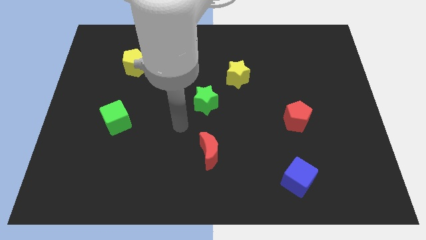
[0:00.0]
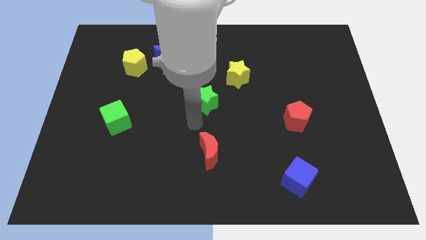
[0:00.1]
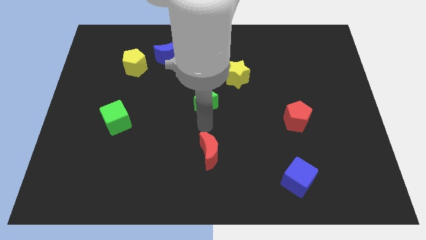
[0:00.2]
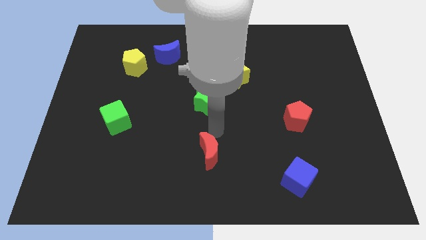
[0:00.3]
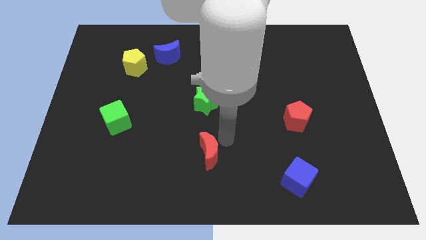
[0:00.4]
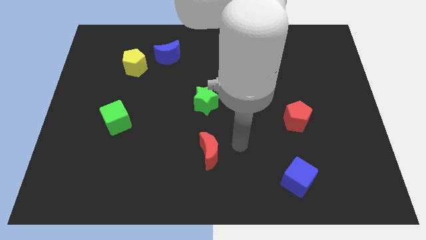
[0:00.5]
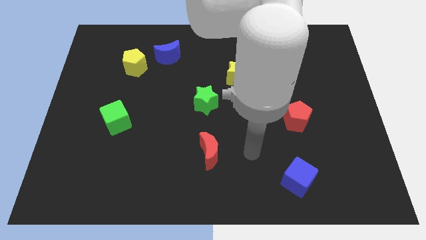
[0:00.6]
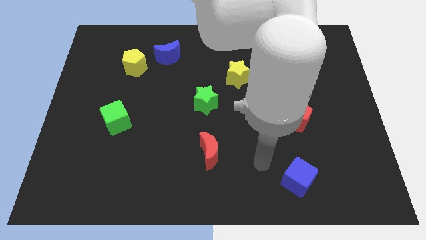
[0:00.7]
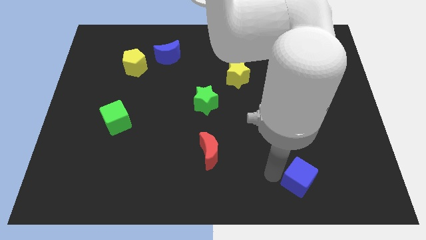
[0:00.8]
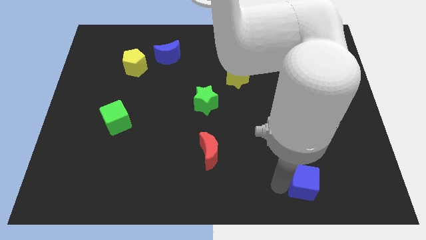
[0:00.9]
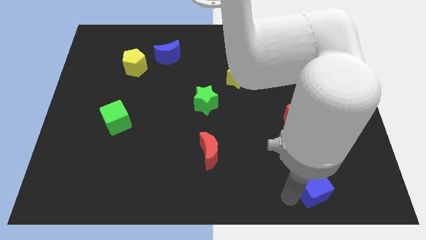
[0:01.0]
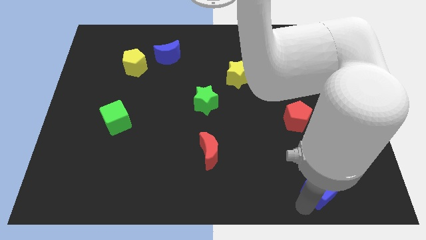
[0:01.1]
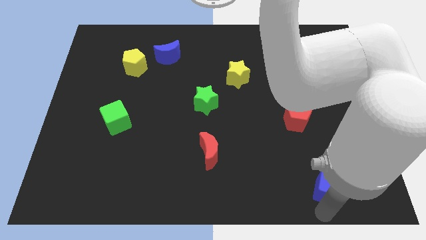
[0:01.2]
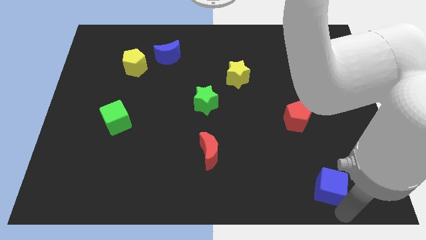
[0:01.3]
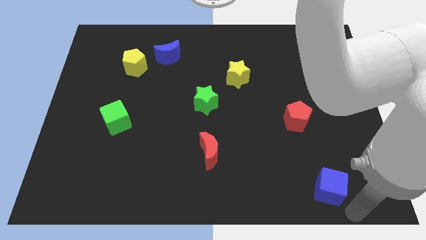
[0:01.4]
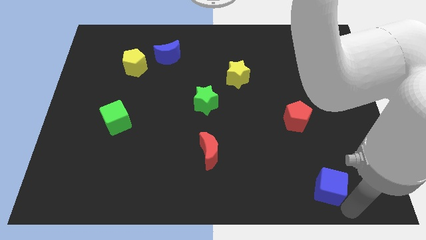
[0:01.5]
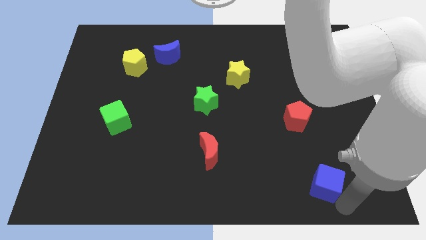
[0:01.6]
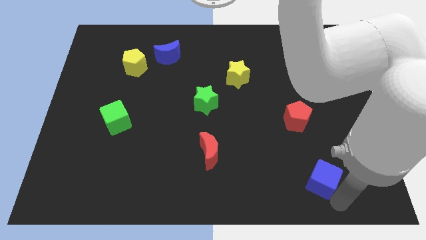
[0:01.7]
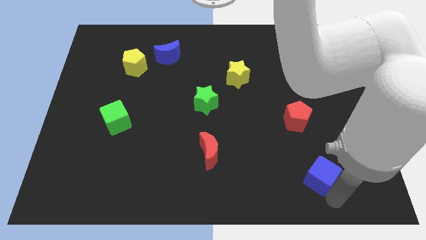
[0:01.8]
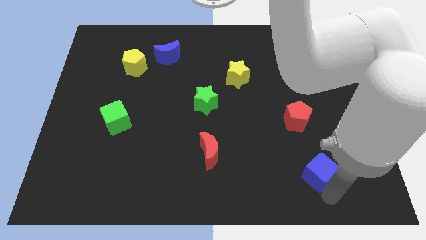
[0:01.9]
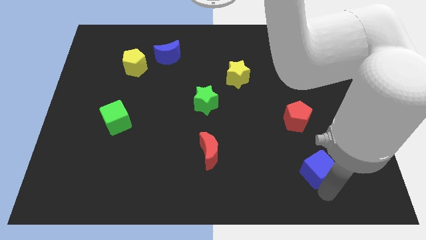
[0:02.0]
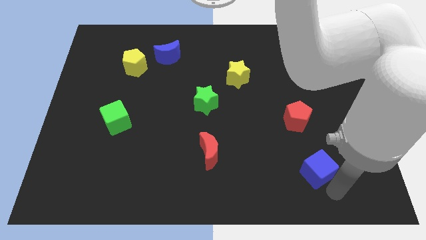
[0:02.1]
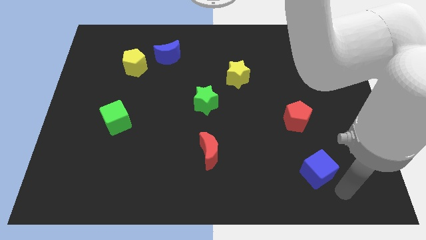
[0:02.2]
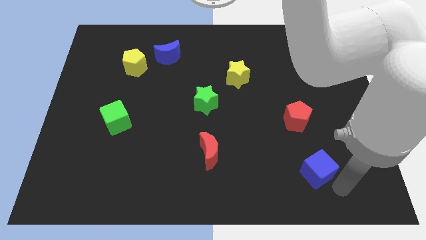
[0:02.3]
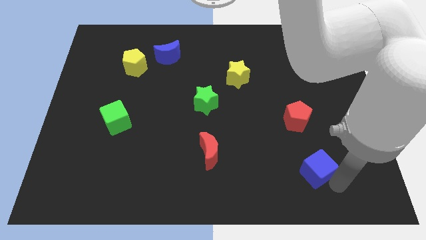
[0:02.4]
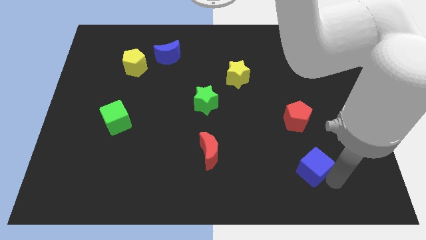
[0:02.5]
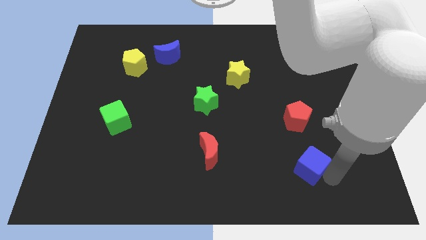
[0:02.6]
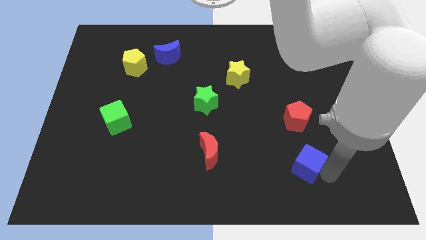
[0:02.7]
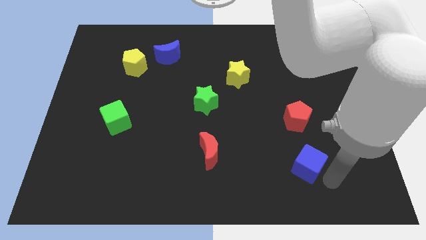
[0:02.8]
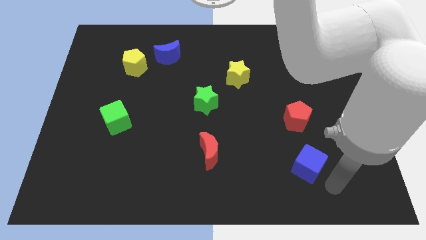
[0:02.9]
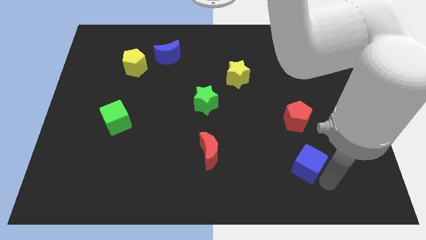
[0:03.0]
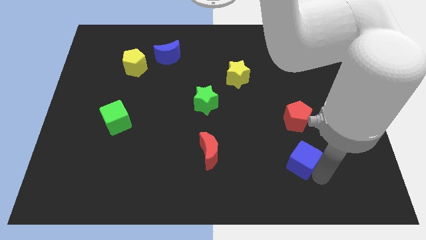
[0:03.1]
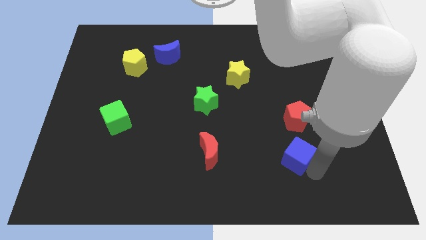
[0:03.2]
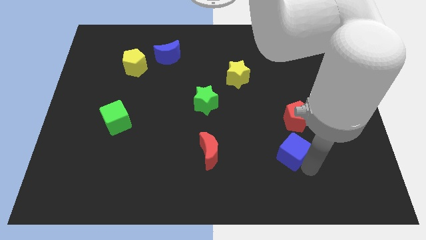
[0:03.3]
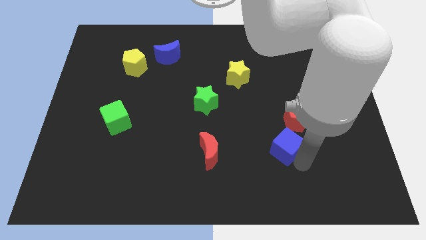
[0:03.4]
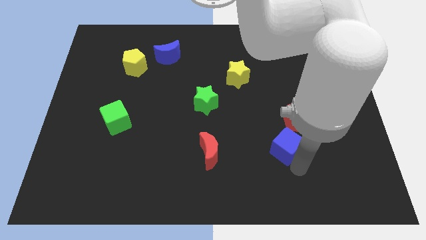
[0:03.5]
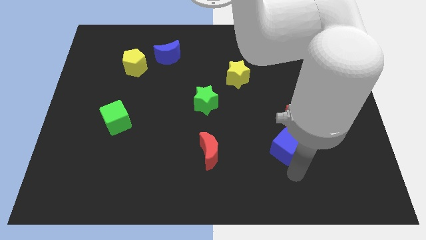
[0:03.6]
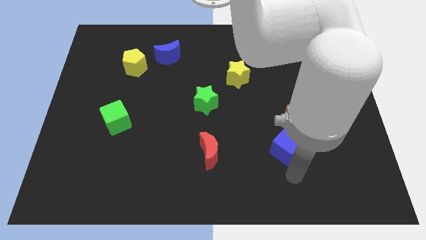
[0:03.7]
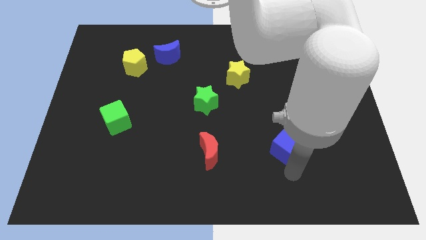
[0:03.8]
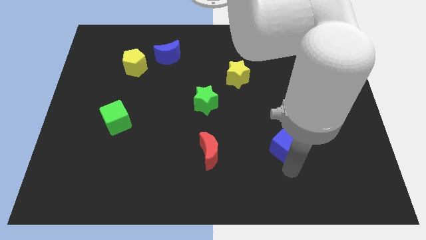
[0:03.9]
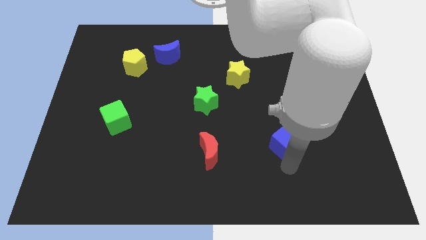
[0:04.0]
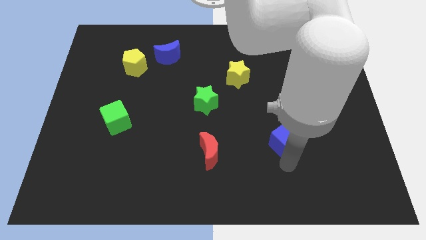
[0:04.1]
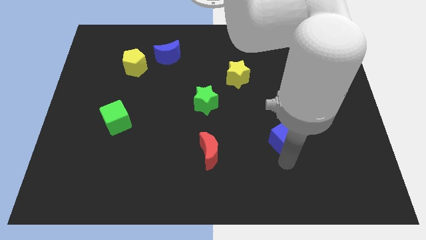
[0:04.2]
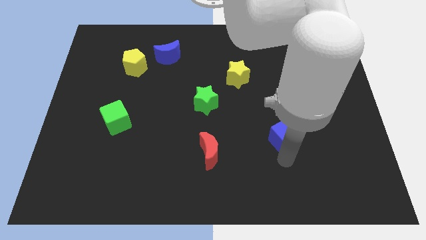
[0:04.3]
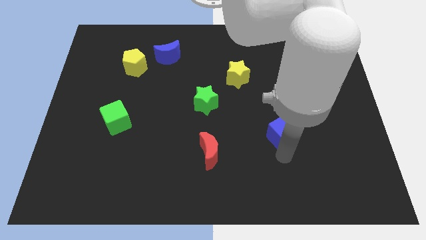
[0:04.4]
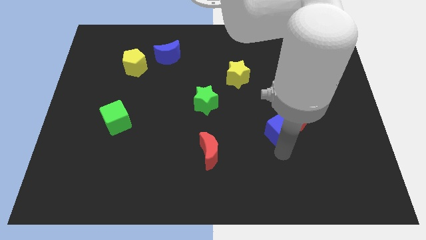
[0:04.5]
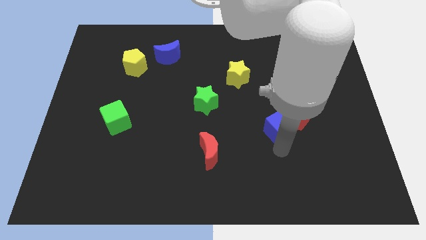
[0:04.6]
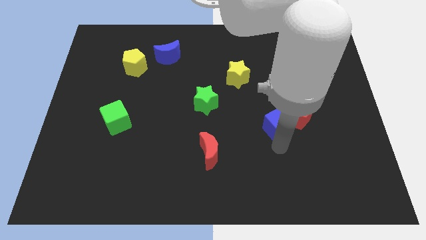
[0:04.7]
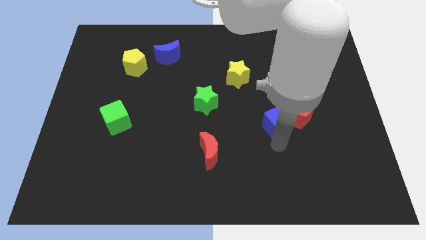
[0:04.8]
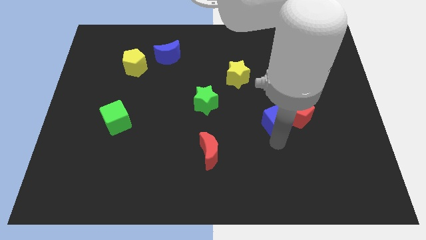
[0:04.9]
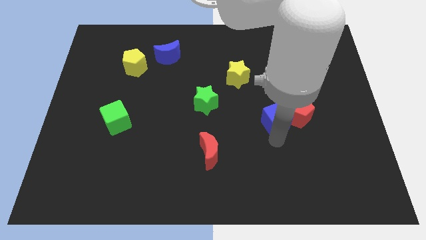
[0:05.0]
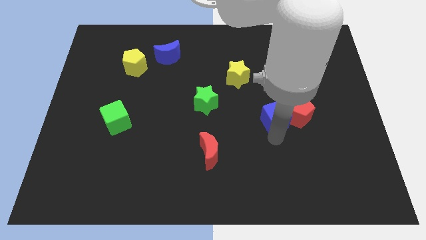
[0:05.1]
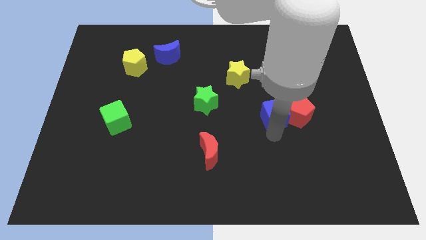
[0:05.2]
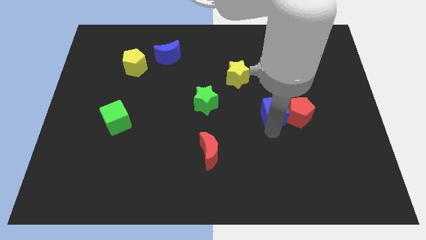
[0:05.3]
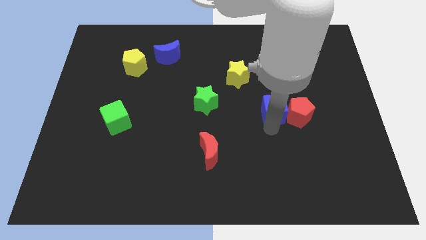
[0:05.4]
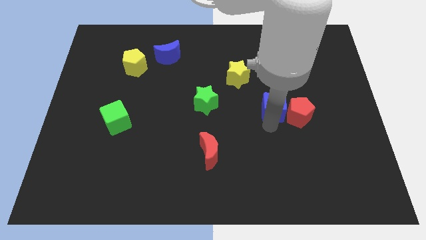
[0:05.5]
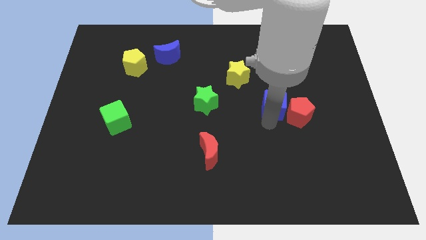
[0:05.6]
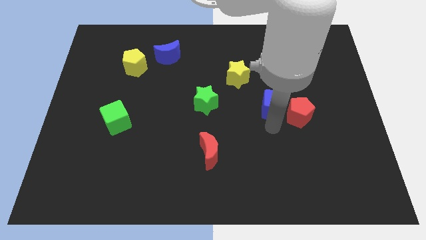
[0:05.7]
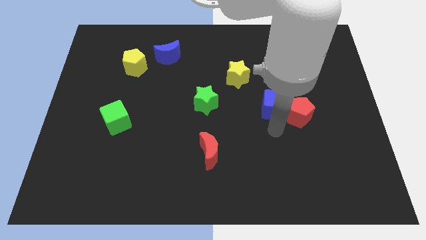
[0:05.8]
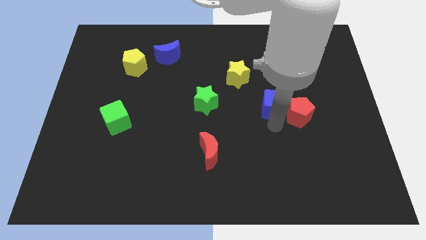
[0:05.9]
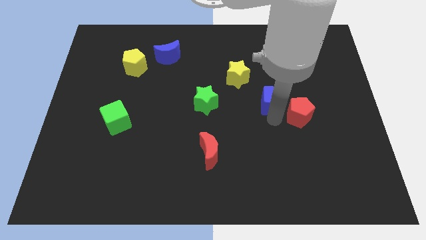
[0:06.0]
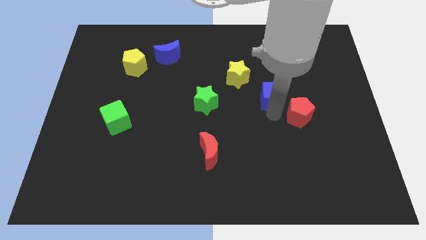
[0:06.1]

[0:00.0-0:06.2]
slide the blue cube upwards

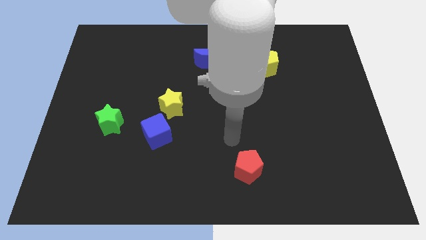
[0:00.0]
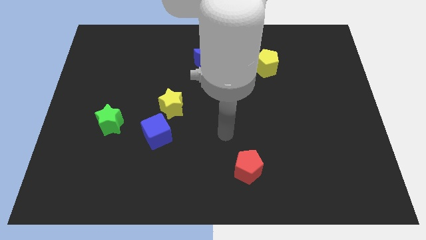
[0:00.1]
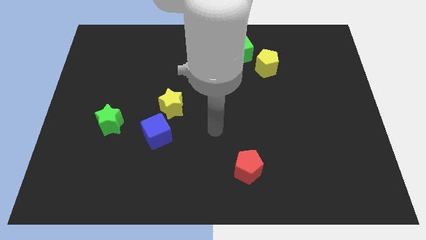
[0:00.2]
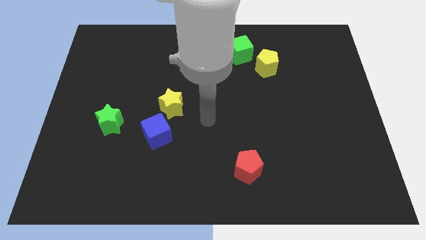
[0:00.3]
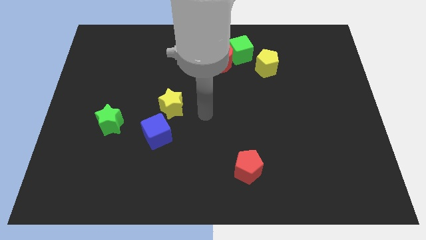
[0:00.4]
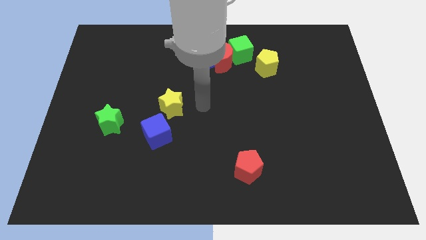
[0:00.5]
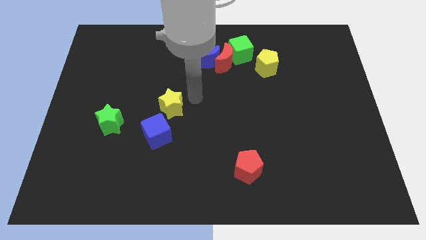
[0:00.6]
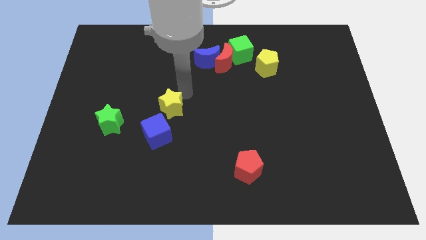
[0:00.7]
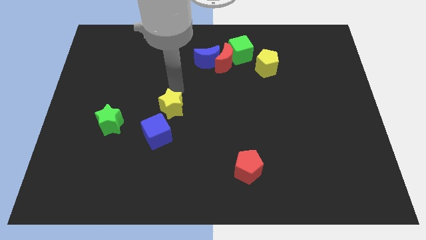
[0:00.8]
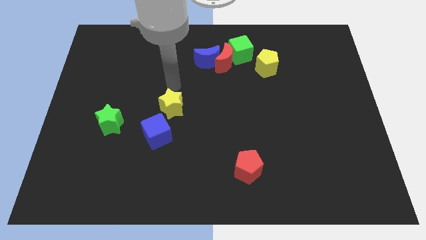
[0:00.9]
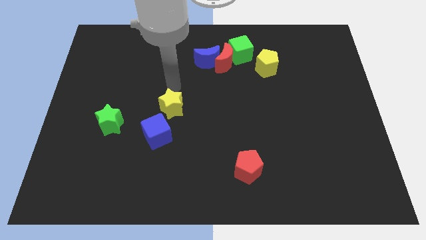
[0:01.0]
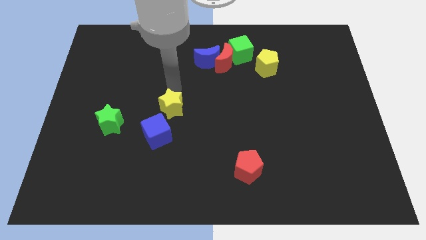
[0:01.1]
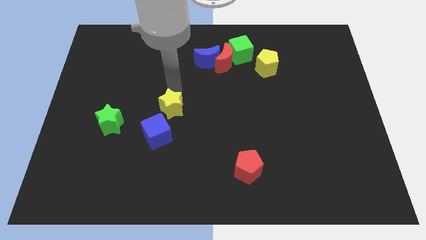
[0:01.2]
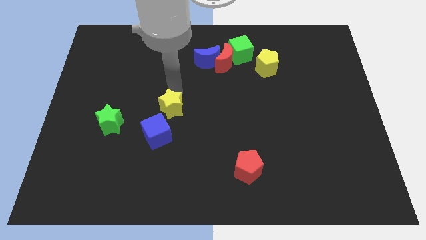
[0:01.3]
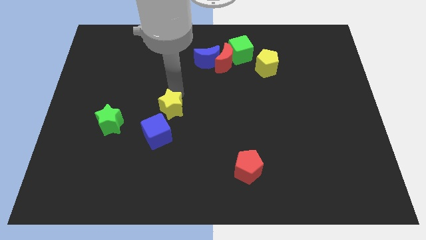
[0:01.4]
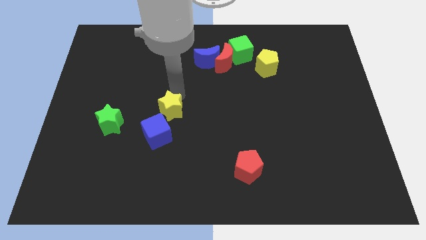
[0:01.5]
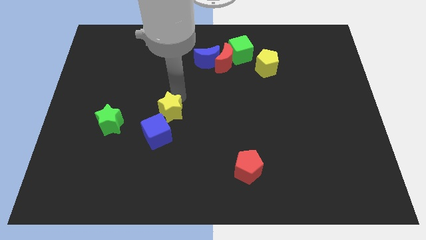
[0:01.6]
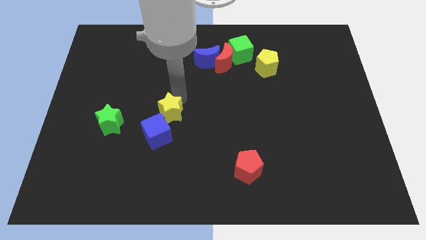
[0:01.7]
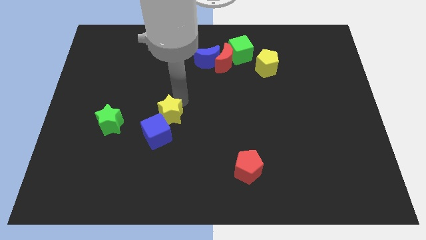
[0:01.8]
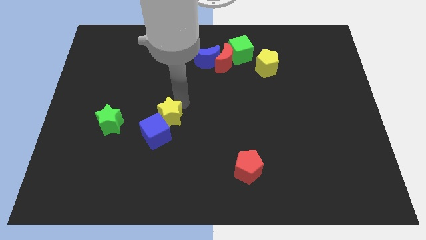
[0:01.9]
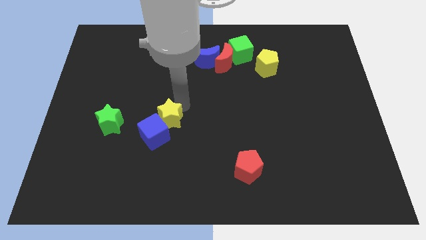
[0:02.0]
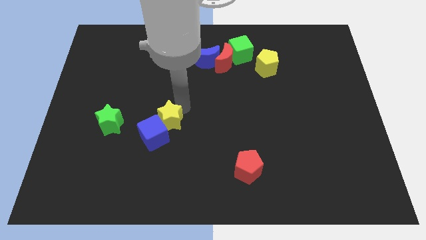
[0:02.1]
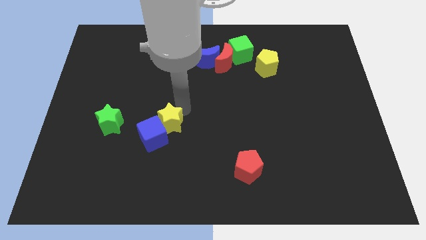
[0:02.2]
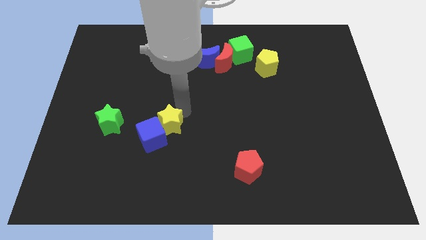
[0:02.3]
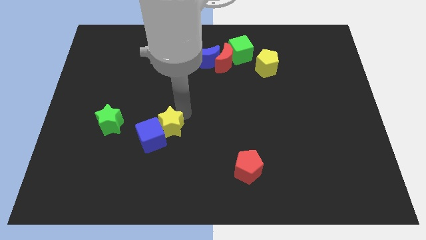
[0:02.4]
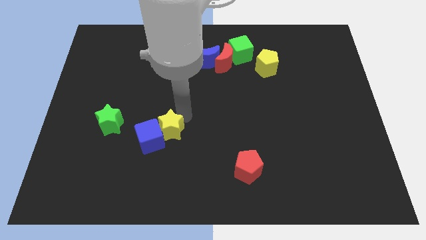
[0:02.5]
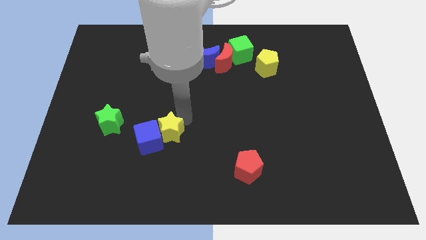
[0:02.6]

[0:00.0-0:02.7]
slightly slide the yellow star downwards
